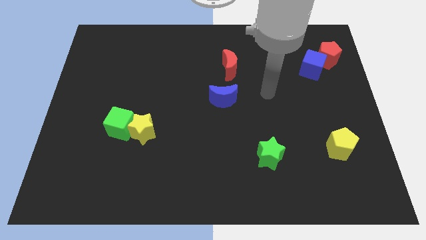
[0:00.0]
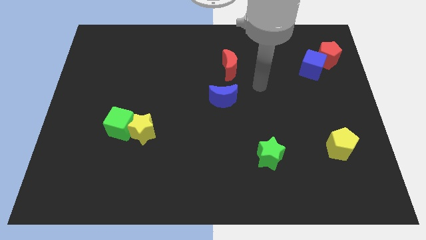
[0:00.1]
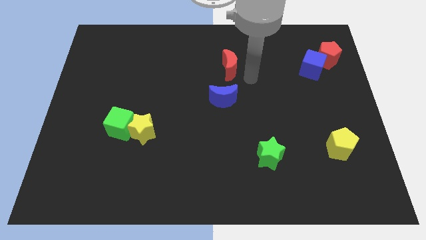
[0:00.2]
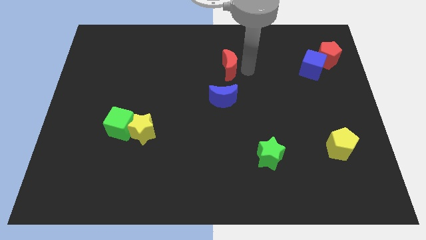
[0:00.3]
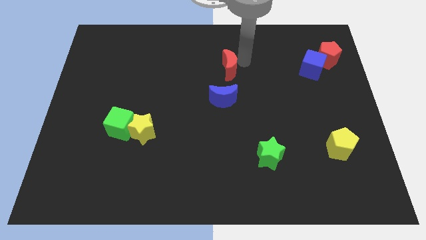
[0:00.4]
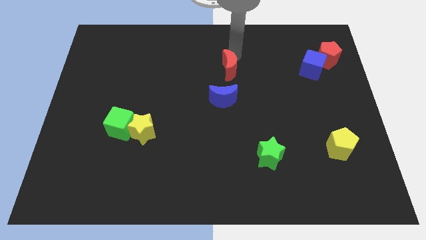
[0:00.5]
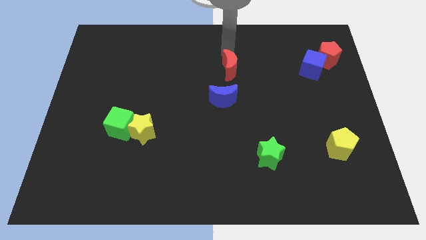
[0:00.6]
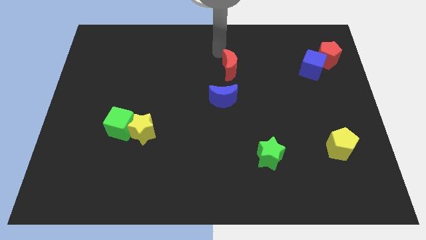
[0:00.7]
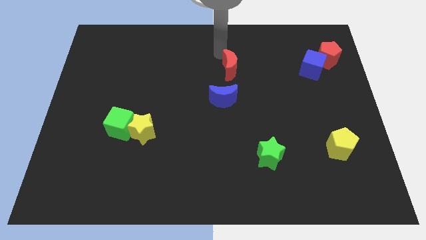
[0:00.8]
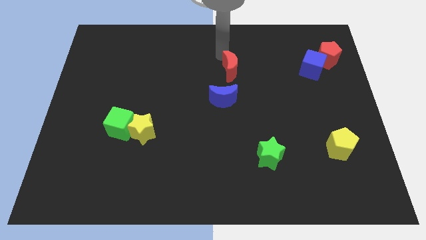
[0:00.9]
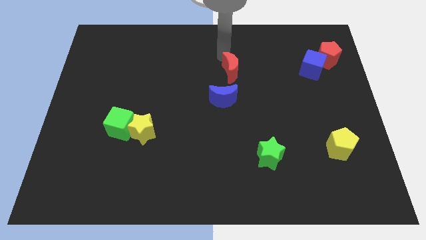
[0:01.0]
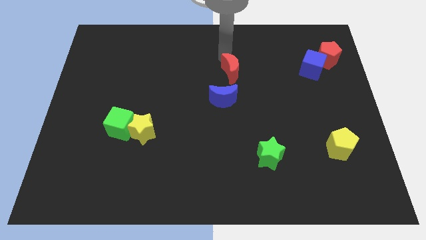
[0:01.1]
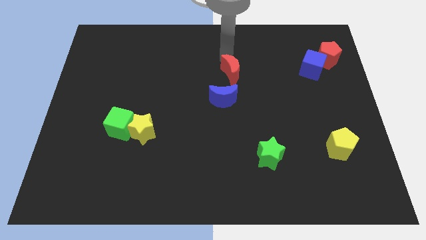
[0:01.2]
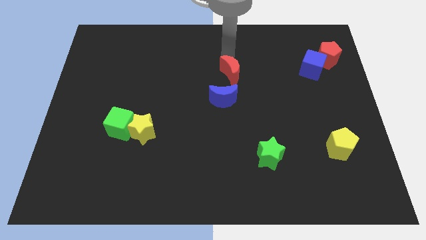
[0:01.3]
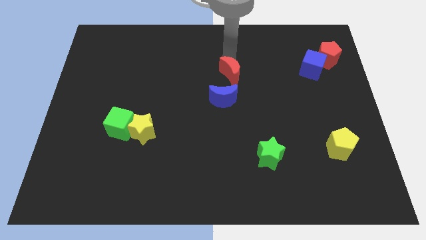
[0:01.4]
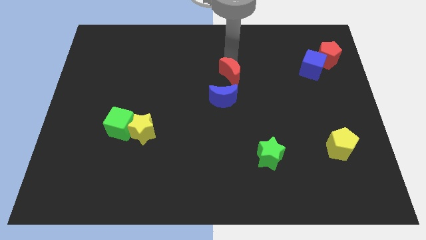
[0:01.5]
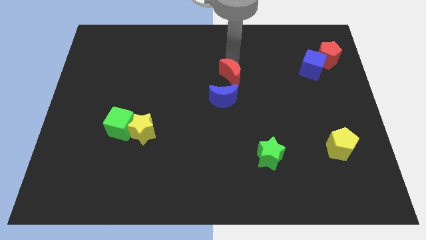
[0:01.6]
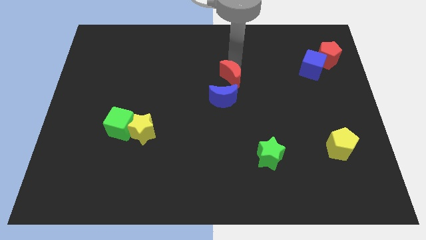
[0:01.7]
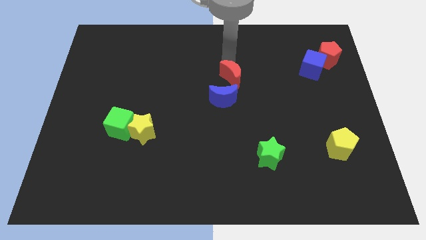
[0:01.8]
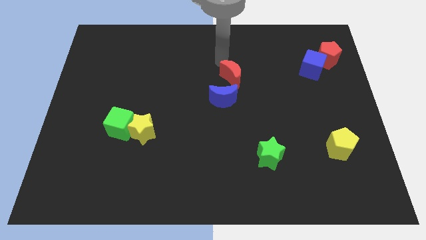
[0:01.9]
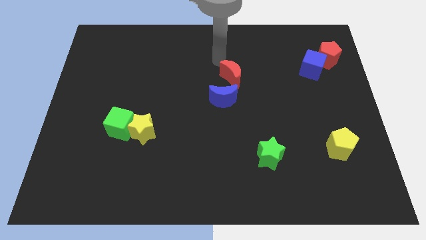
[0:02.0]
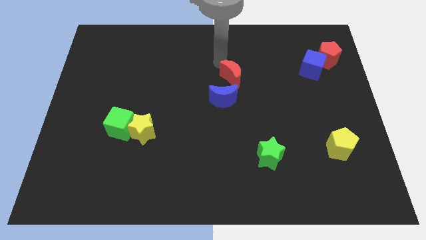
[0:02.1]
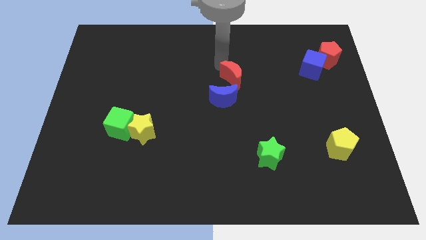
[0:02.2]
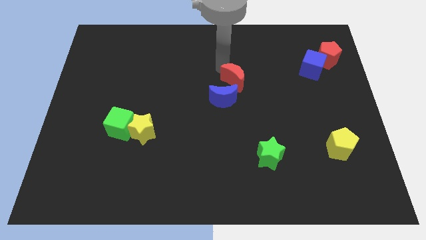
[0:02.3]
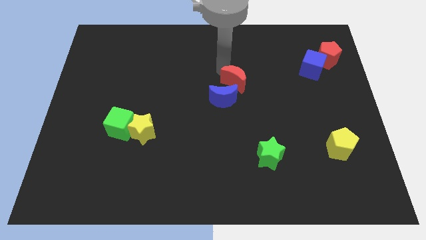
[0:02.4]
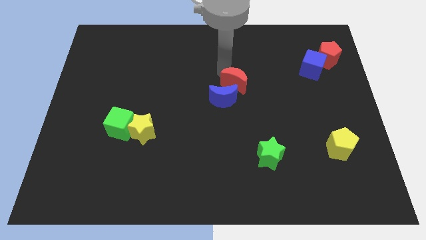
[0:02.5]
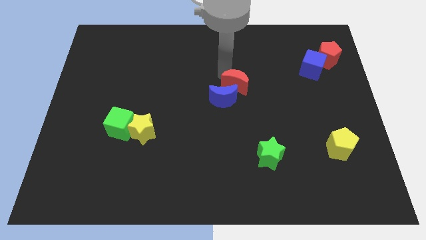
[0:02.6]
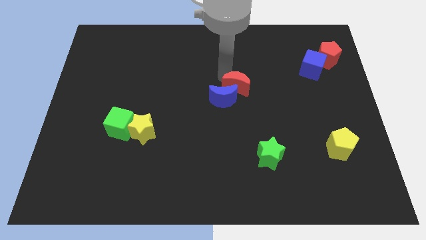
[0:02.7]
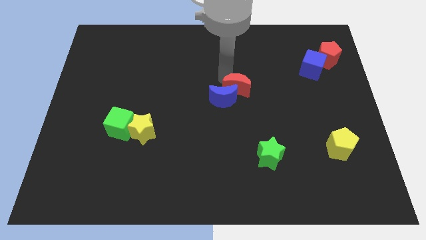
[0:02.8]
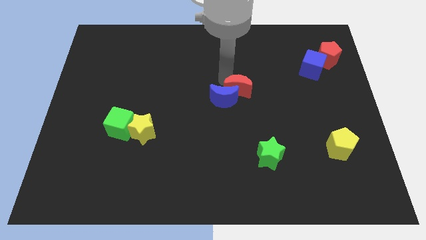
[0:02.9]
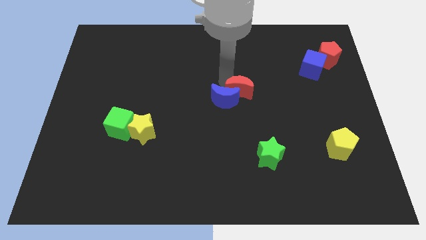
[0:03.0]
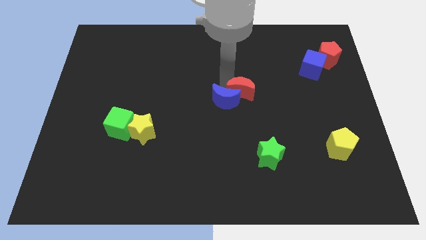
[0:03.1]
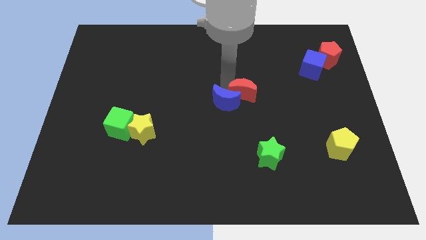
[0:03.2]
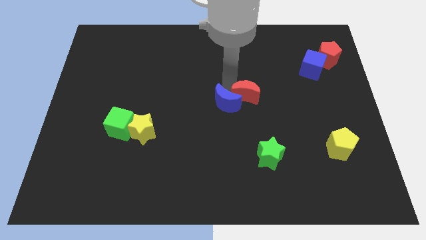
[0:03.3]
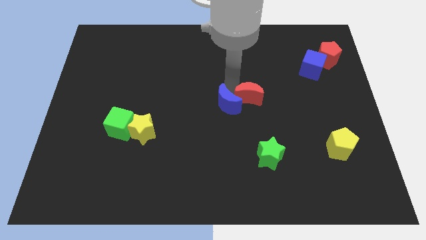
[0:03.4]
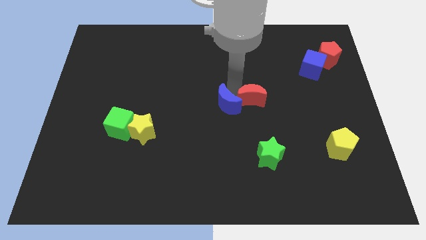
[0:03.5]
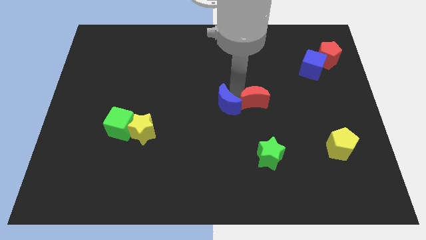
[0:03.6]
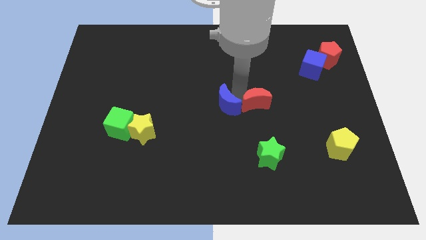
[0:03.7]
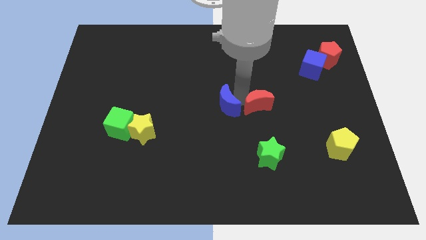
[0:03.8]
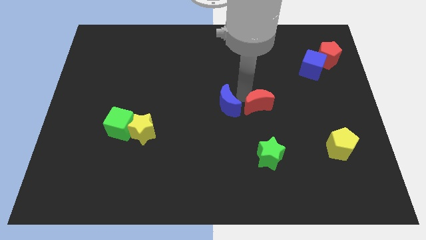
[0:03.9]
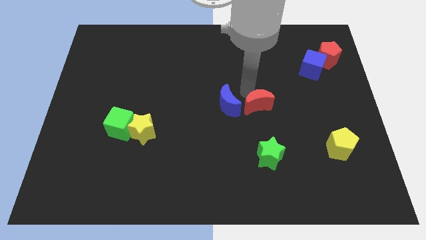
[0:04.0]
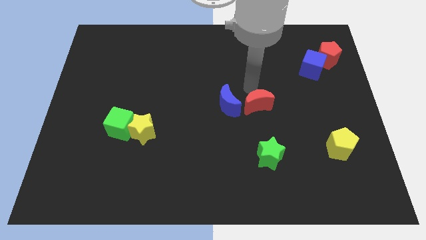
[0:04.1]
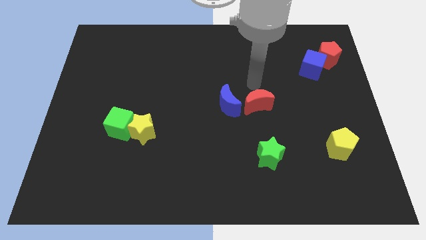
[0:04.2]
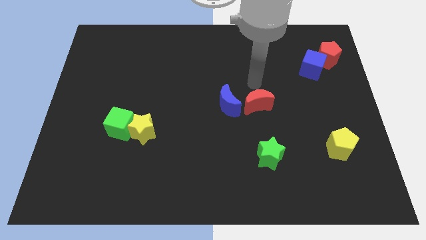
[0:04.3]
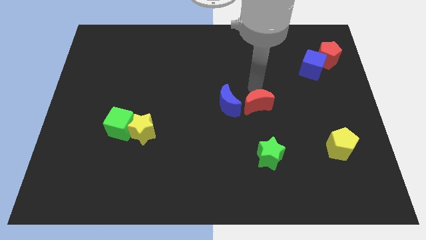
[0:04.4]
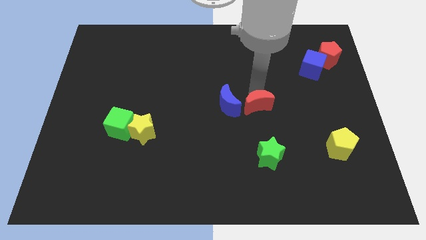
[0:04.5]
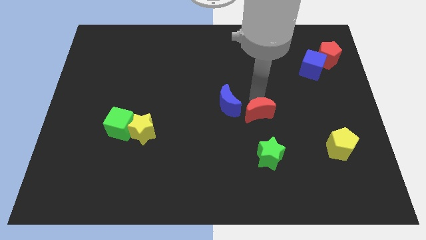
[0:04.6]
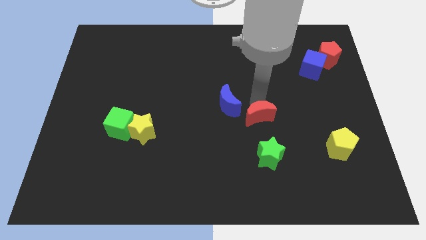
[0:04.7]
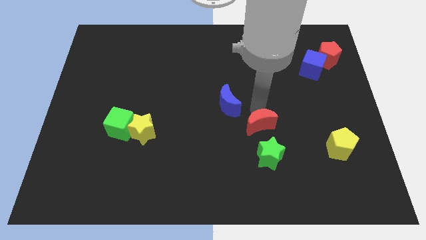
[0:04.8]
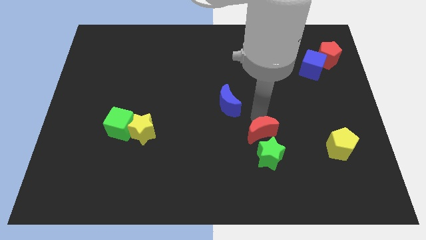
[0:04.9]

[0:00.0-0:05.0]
push the red moon towards the green star

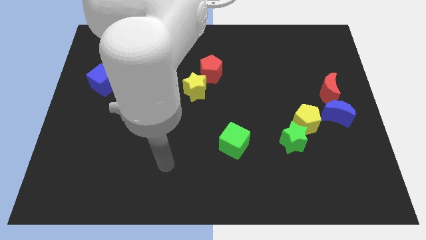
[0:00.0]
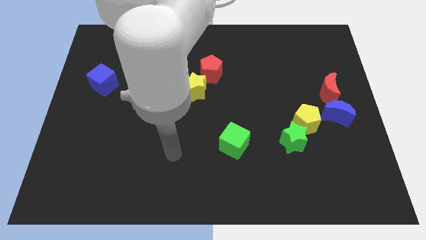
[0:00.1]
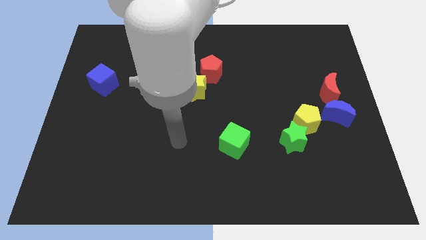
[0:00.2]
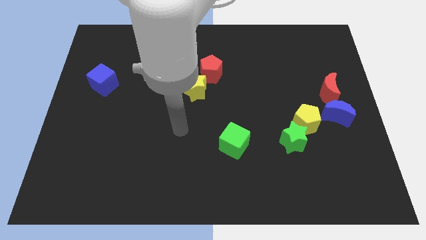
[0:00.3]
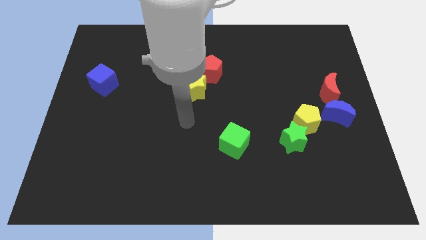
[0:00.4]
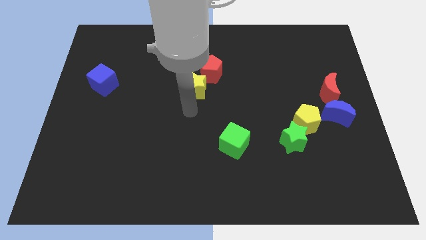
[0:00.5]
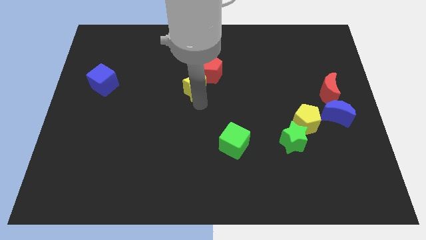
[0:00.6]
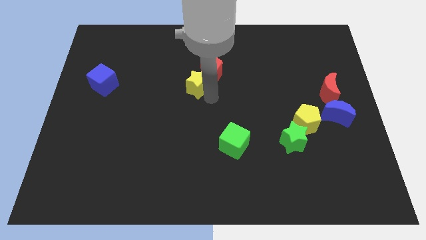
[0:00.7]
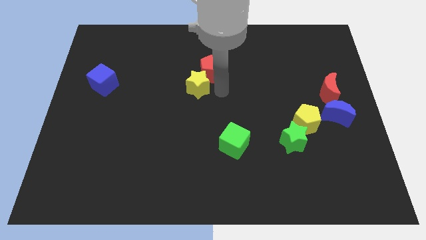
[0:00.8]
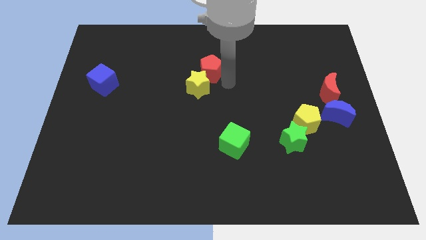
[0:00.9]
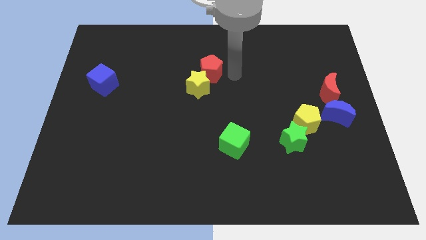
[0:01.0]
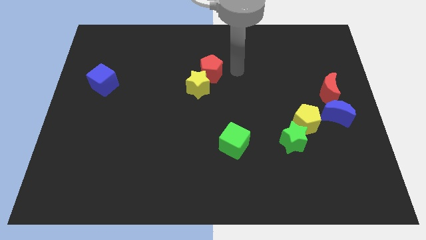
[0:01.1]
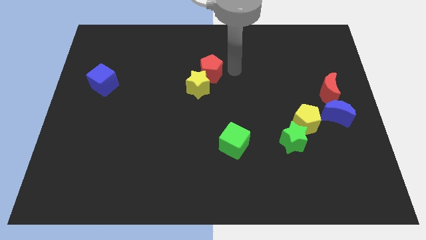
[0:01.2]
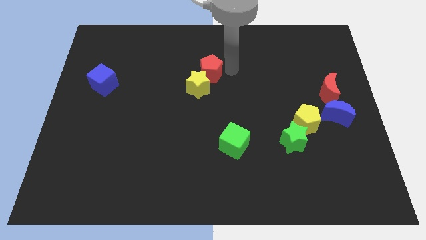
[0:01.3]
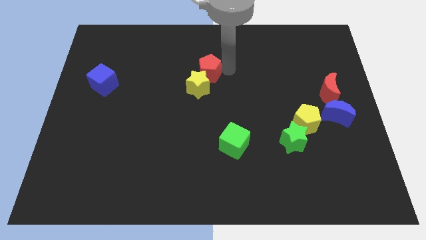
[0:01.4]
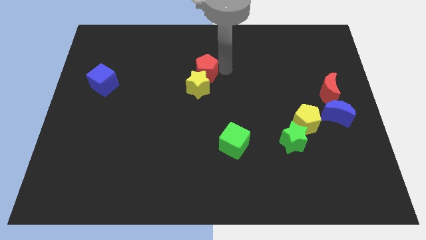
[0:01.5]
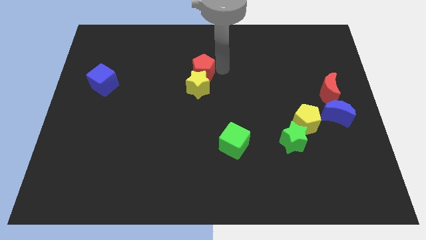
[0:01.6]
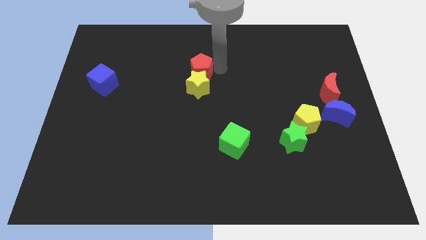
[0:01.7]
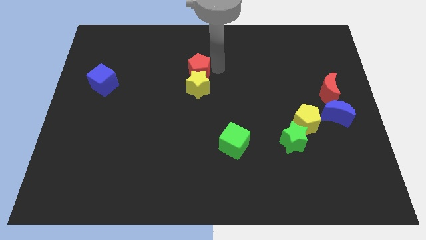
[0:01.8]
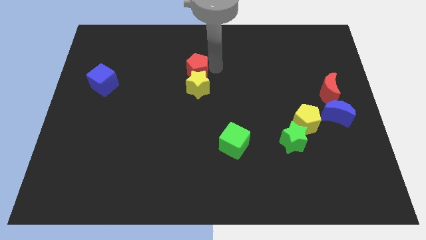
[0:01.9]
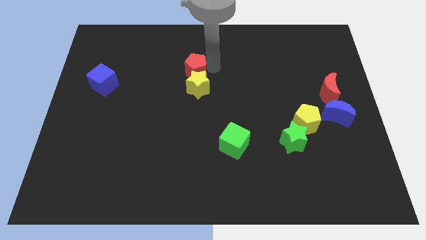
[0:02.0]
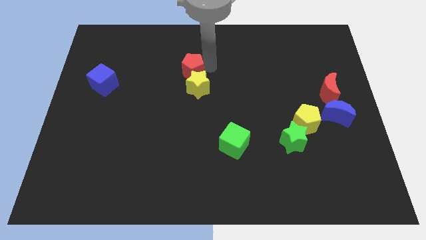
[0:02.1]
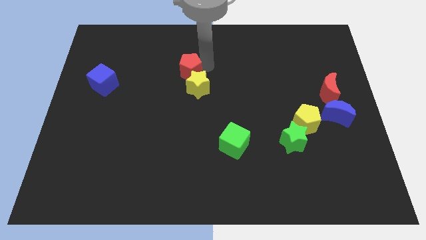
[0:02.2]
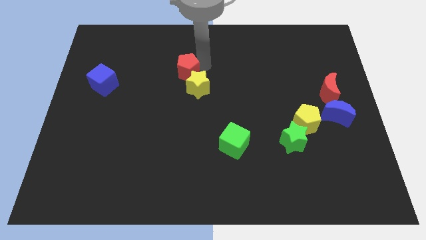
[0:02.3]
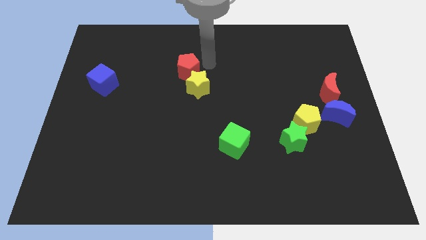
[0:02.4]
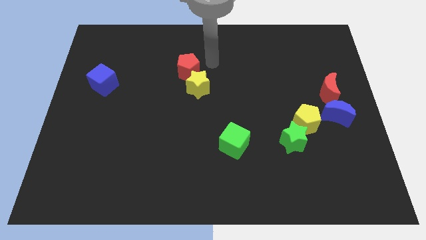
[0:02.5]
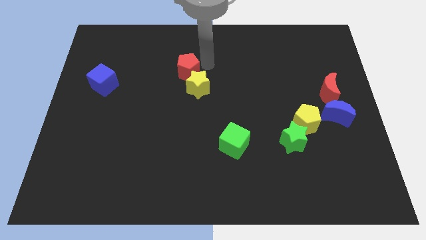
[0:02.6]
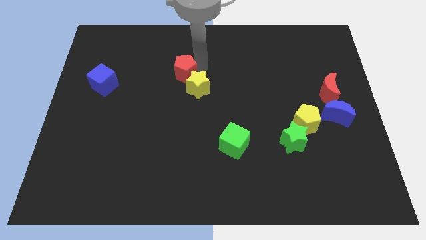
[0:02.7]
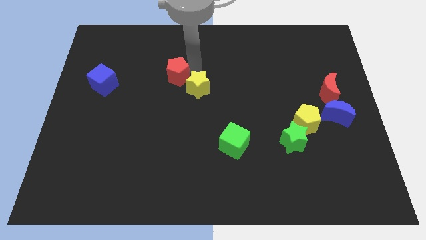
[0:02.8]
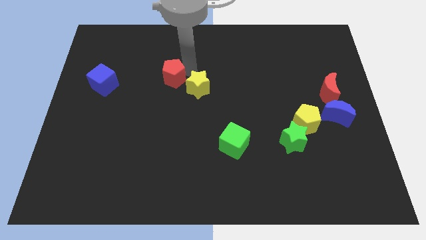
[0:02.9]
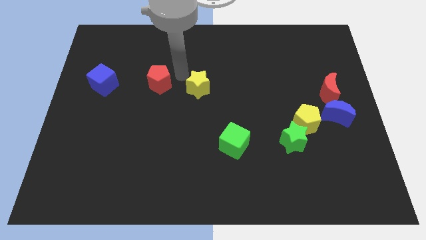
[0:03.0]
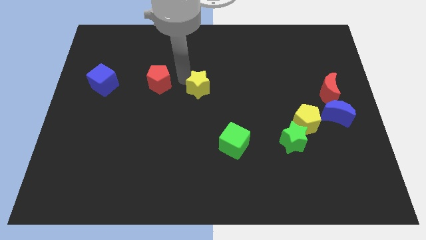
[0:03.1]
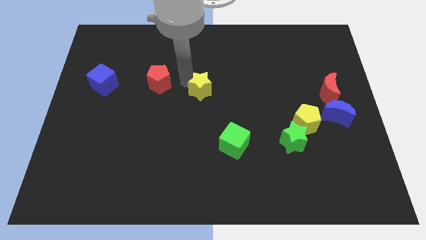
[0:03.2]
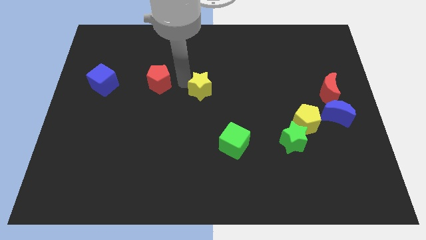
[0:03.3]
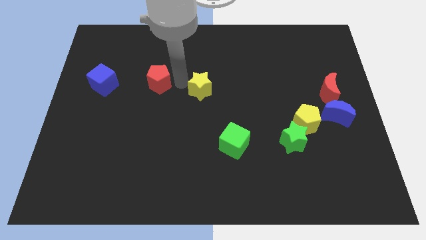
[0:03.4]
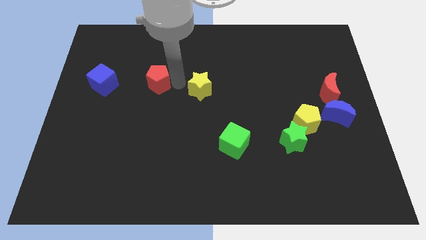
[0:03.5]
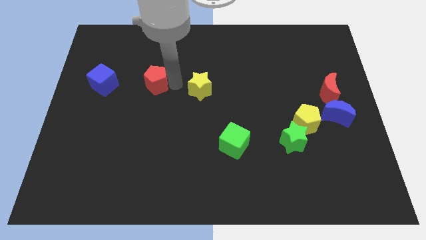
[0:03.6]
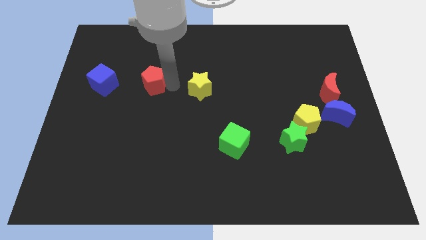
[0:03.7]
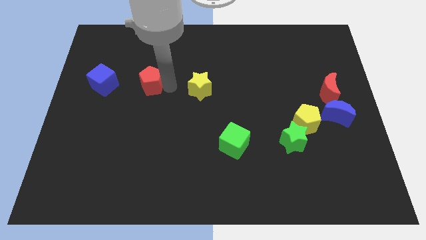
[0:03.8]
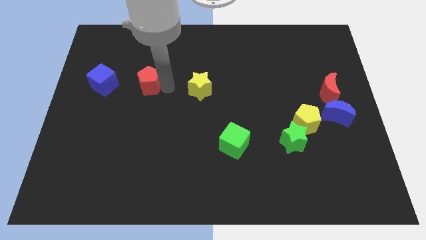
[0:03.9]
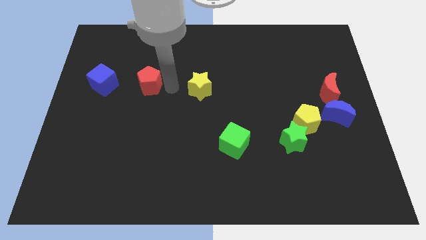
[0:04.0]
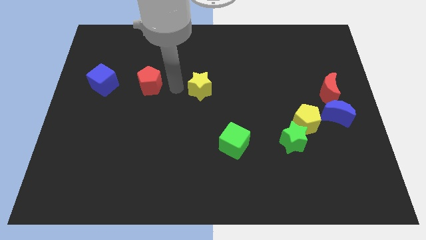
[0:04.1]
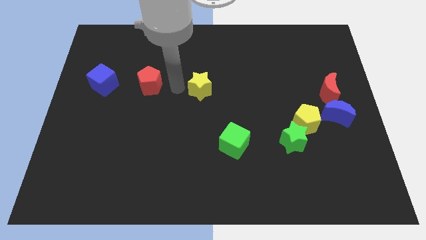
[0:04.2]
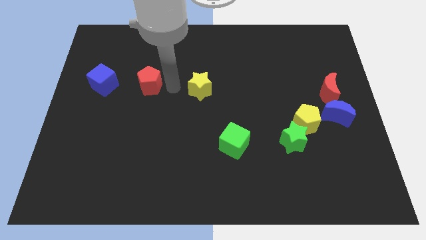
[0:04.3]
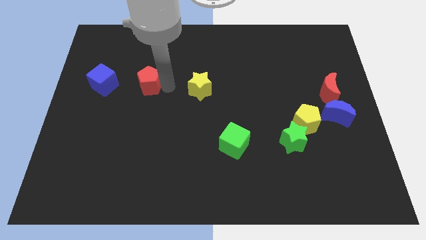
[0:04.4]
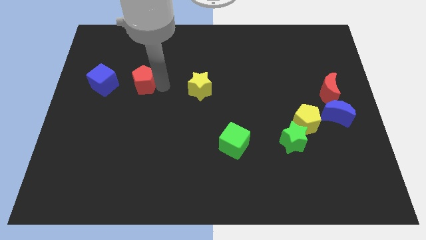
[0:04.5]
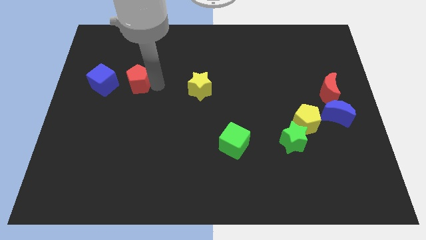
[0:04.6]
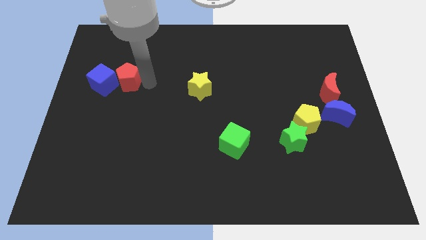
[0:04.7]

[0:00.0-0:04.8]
move the red pentagon to the blue cube
